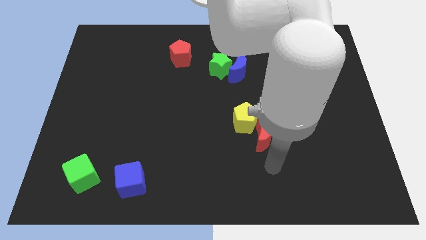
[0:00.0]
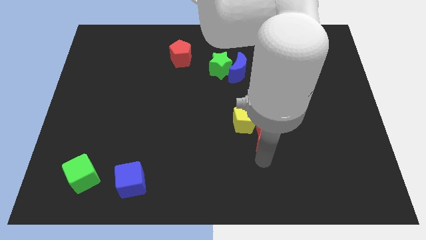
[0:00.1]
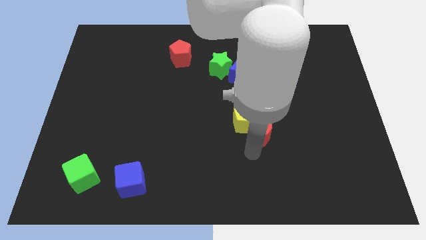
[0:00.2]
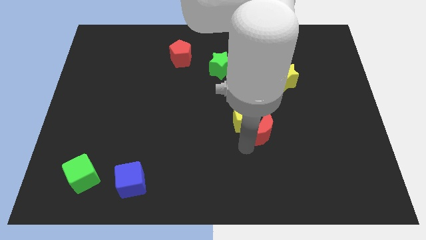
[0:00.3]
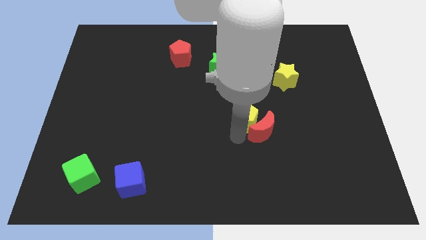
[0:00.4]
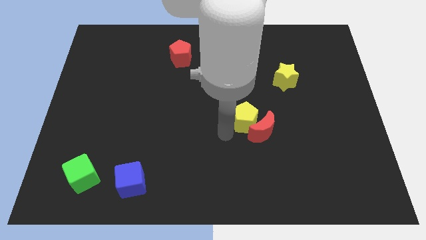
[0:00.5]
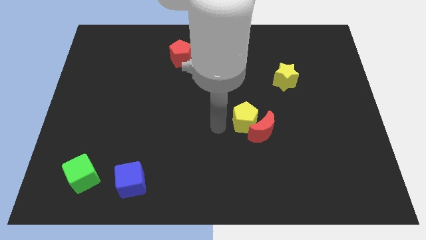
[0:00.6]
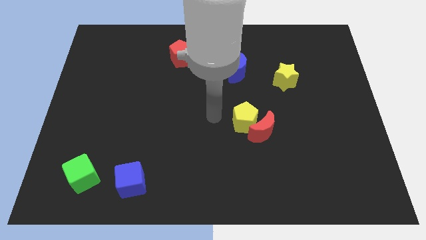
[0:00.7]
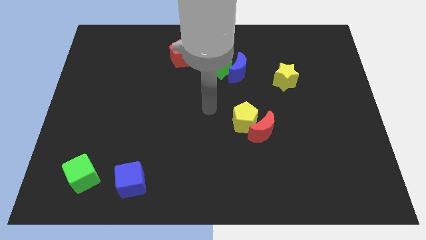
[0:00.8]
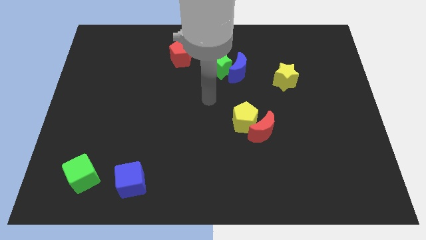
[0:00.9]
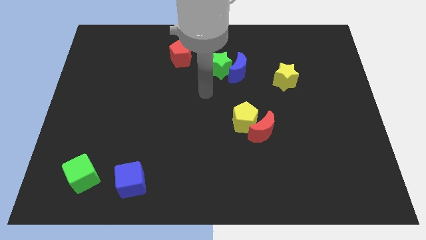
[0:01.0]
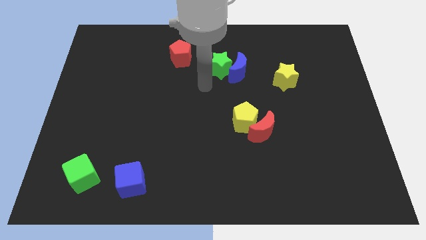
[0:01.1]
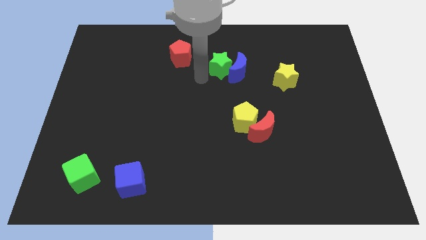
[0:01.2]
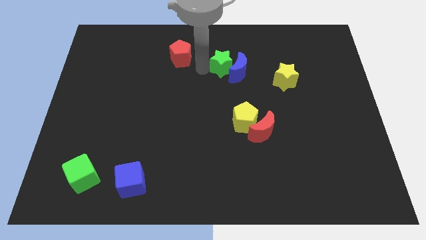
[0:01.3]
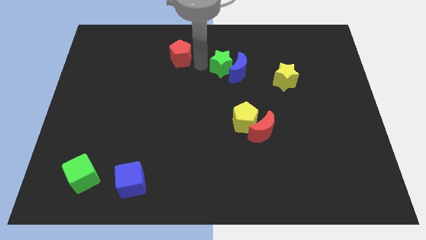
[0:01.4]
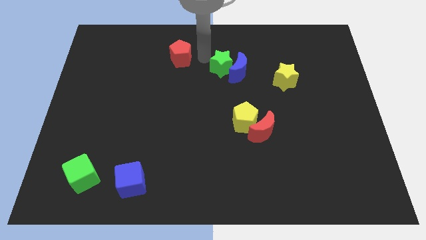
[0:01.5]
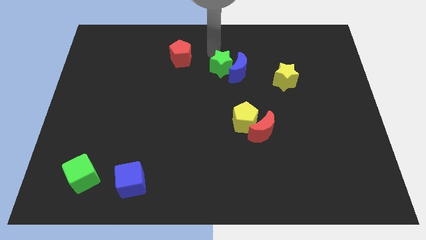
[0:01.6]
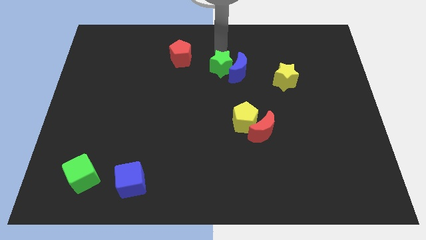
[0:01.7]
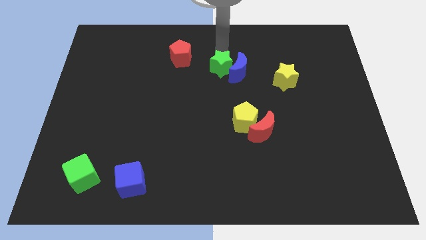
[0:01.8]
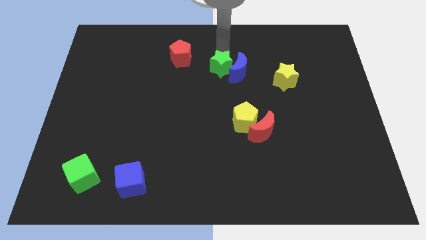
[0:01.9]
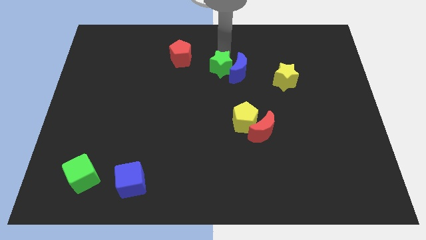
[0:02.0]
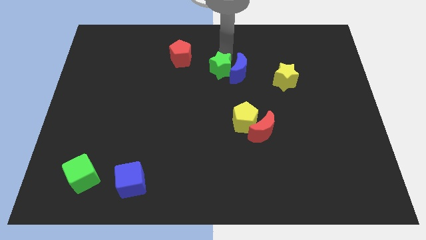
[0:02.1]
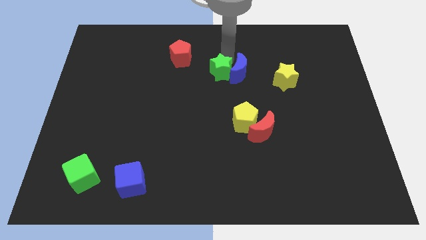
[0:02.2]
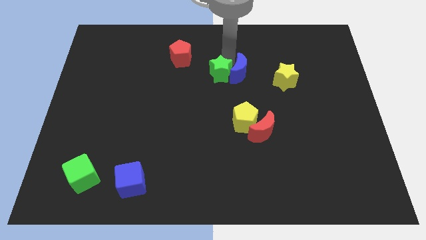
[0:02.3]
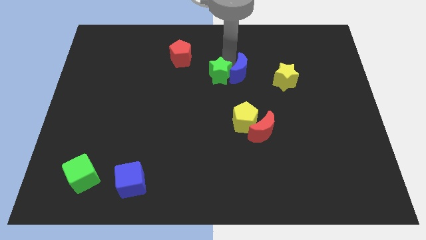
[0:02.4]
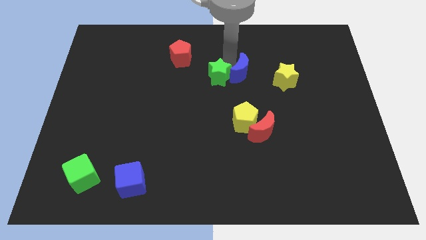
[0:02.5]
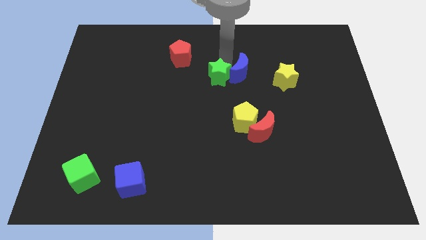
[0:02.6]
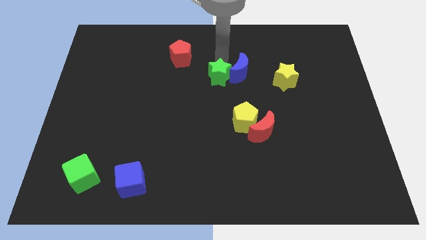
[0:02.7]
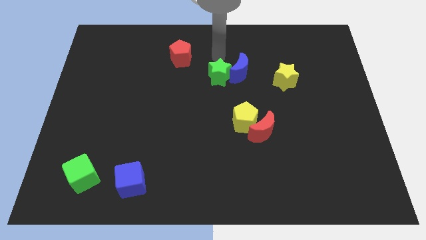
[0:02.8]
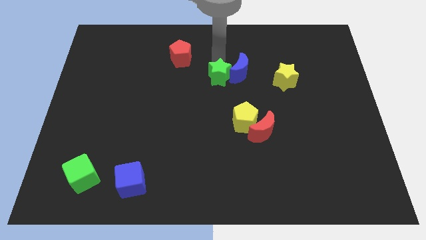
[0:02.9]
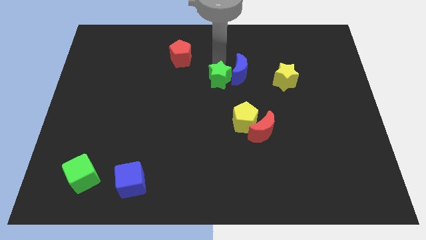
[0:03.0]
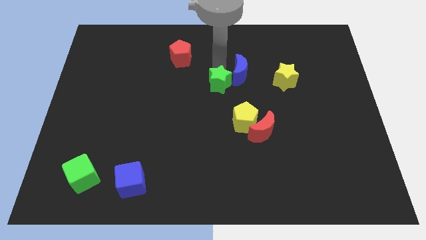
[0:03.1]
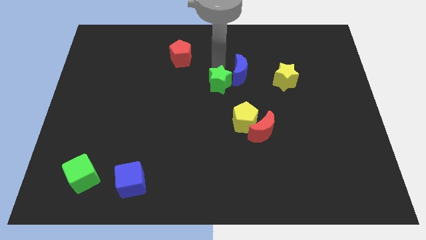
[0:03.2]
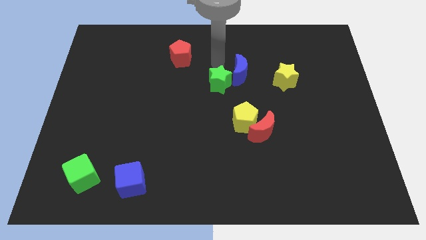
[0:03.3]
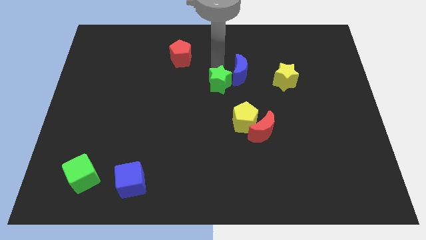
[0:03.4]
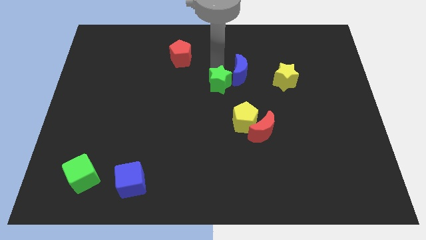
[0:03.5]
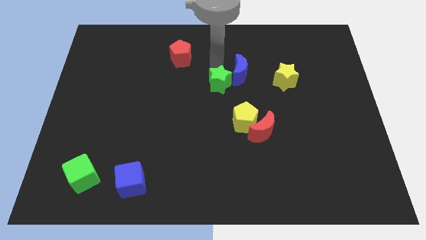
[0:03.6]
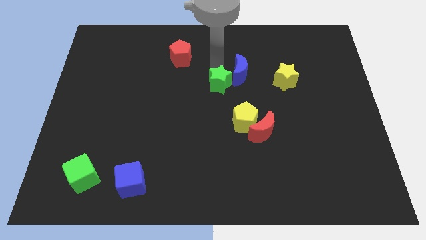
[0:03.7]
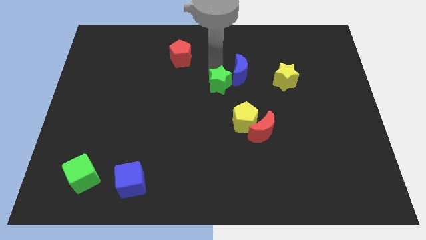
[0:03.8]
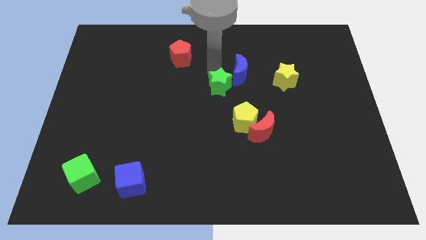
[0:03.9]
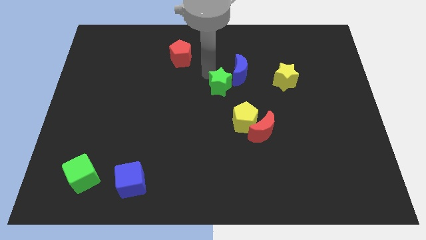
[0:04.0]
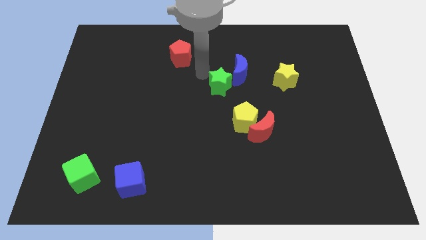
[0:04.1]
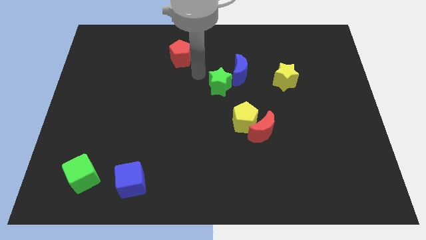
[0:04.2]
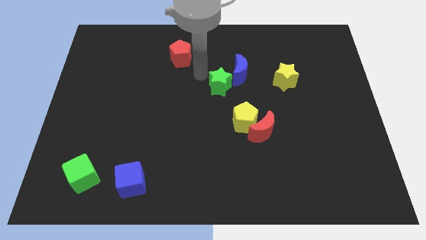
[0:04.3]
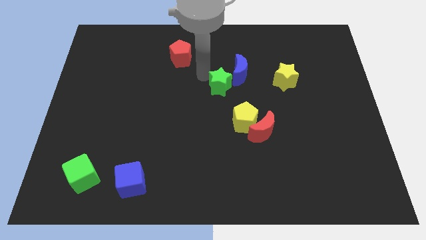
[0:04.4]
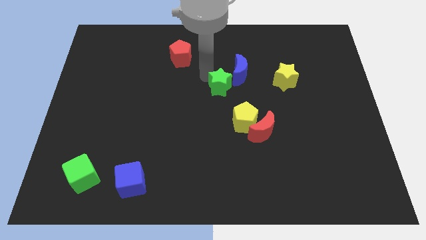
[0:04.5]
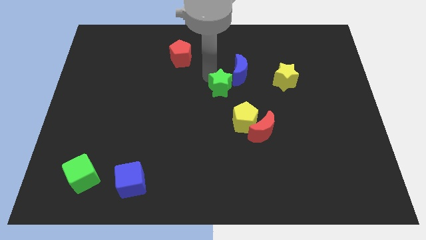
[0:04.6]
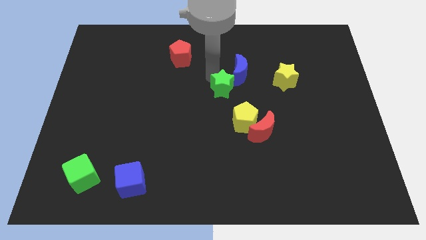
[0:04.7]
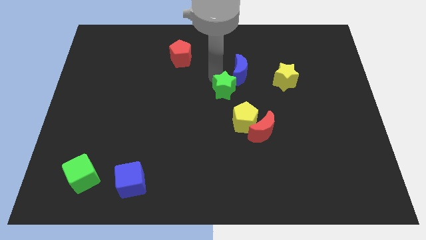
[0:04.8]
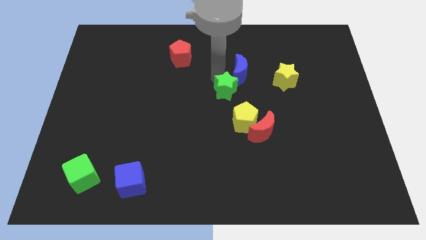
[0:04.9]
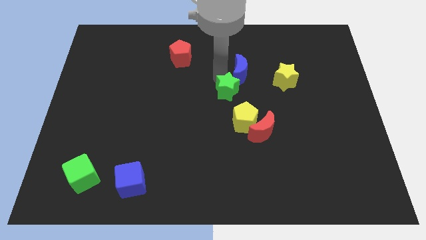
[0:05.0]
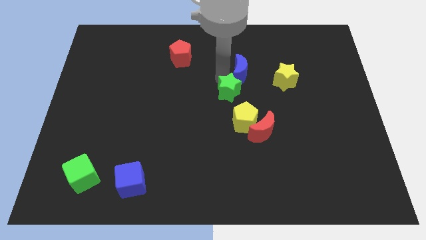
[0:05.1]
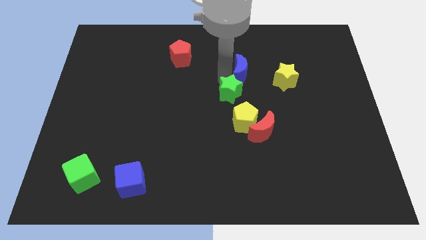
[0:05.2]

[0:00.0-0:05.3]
slightly push the green star diagonally downwards and to the right

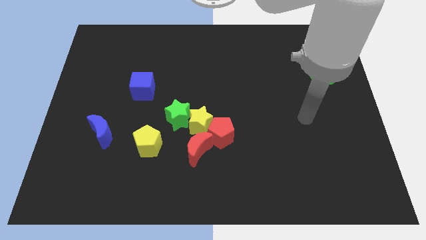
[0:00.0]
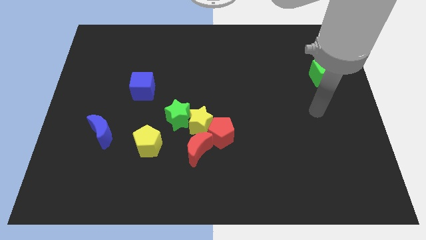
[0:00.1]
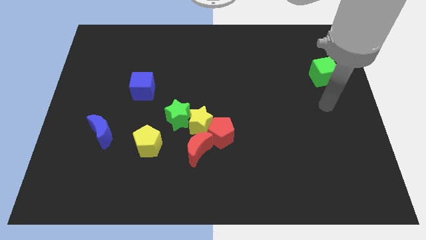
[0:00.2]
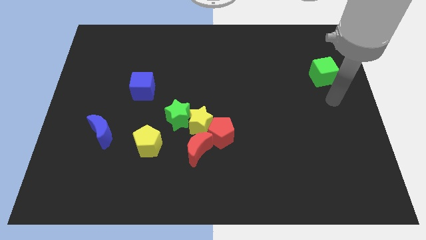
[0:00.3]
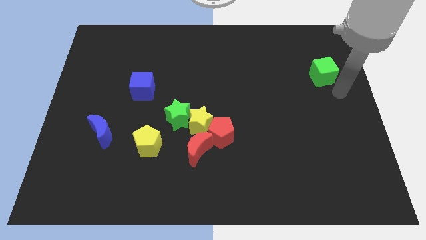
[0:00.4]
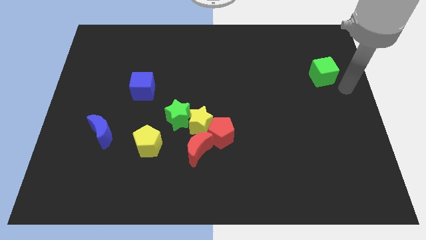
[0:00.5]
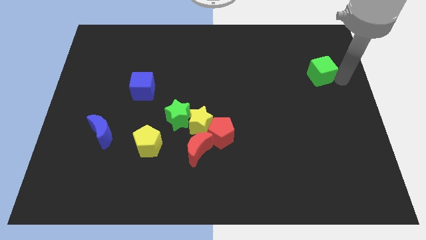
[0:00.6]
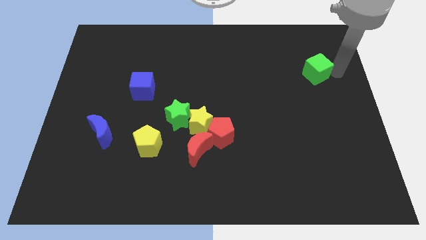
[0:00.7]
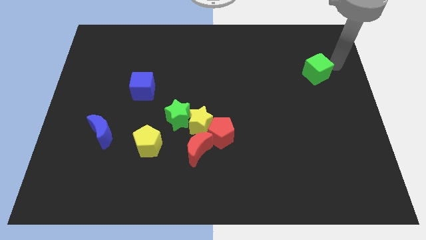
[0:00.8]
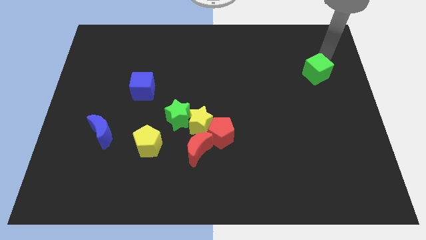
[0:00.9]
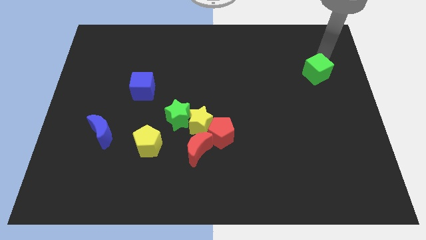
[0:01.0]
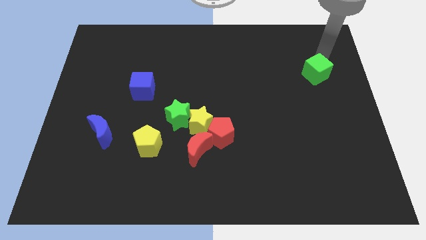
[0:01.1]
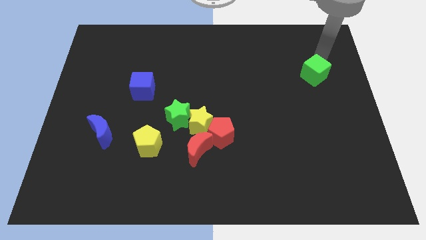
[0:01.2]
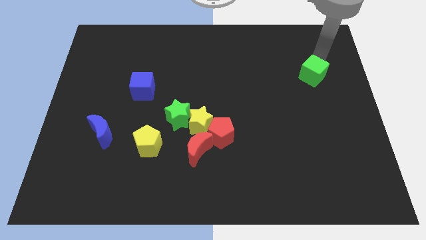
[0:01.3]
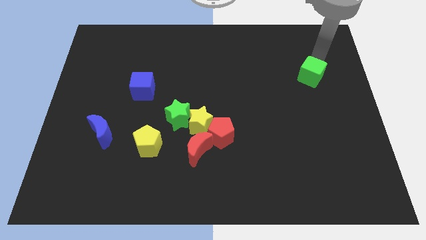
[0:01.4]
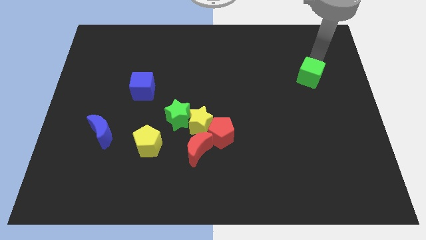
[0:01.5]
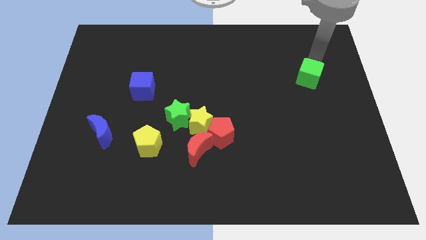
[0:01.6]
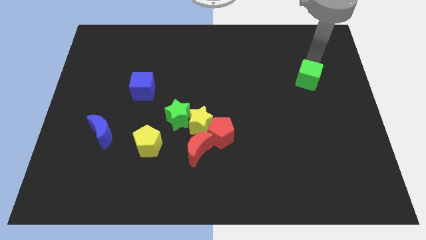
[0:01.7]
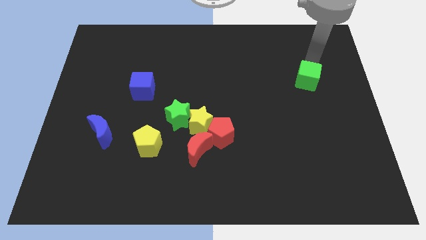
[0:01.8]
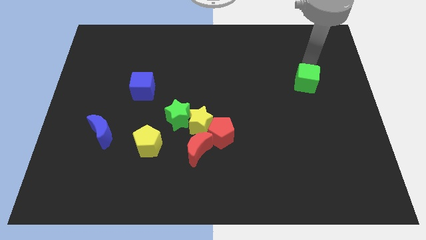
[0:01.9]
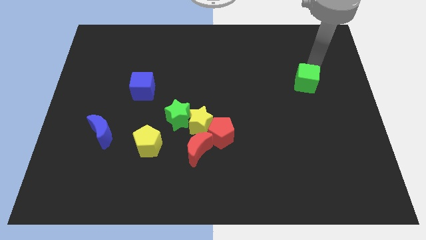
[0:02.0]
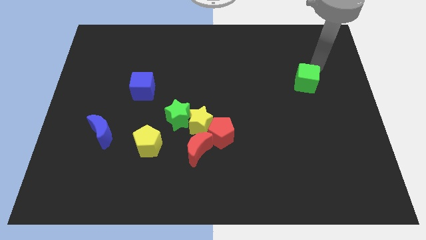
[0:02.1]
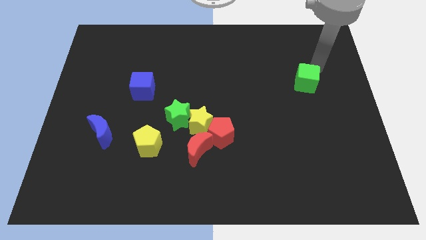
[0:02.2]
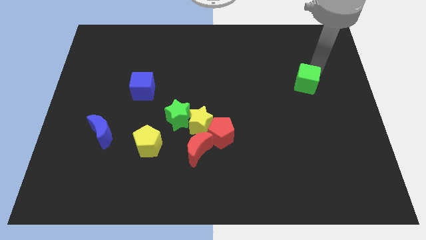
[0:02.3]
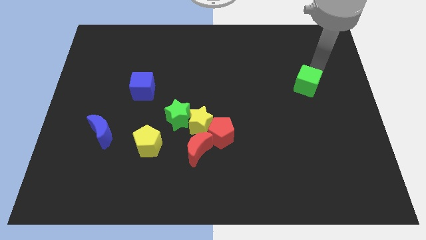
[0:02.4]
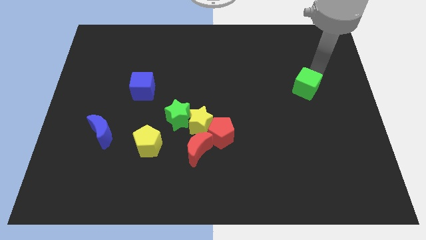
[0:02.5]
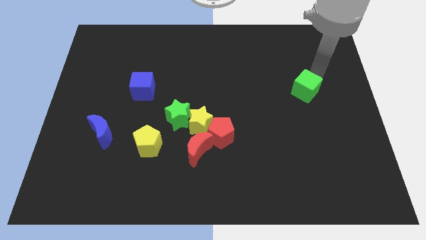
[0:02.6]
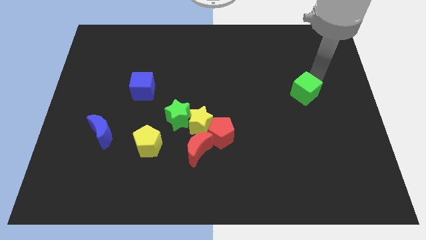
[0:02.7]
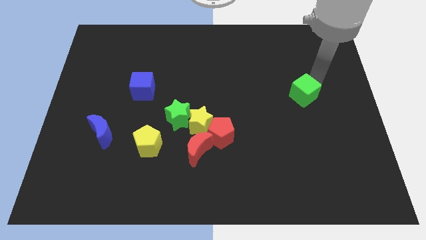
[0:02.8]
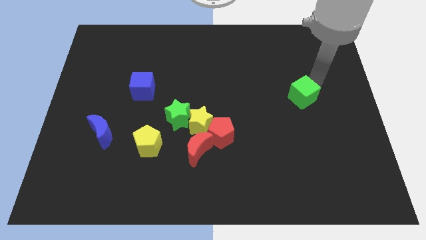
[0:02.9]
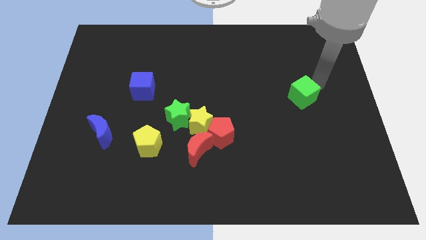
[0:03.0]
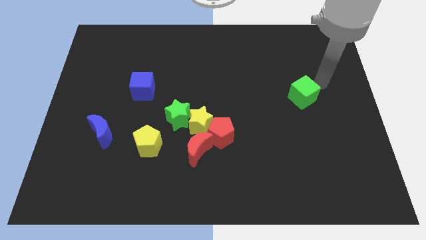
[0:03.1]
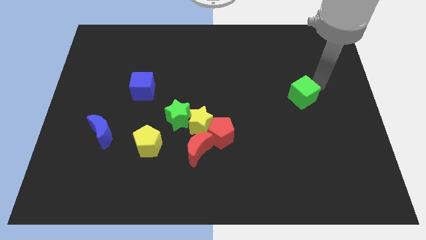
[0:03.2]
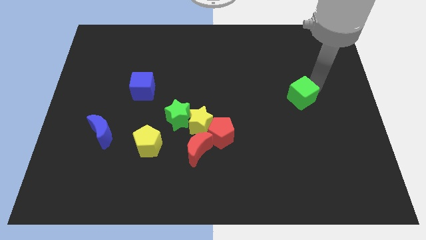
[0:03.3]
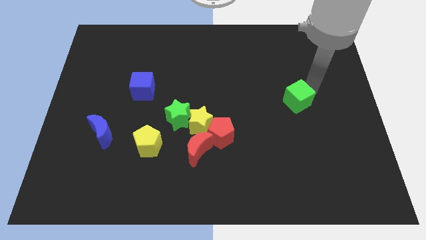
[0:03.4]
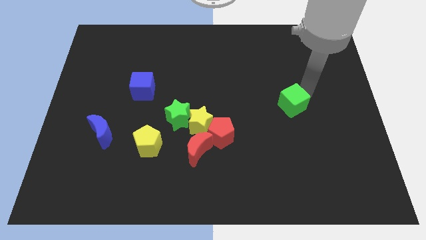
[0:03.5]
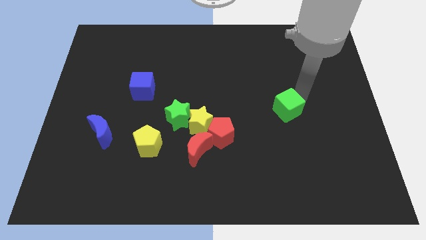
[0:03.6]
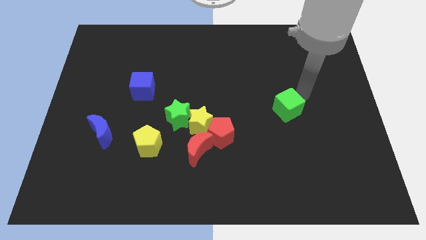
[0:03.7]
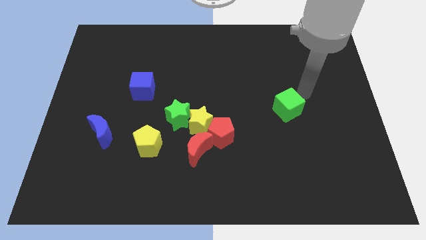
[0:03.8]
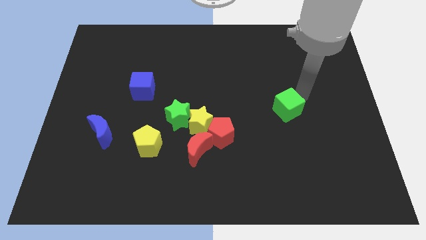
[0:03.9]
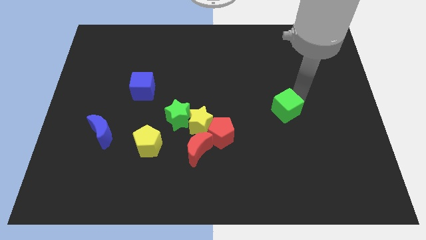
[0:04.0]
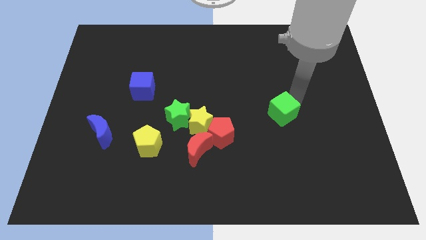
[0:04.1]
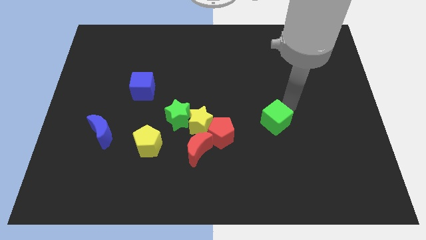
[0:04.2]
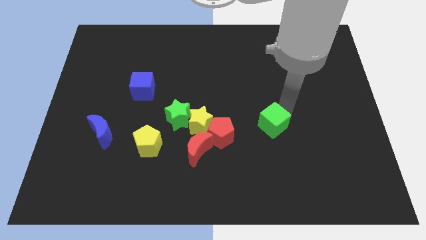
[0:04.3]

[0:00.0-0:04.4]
move the green cube down and then to the left
